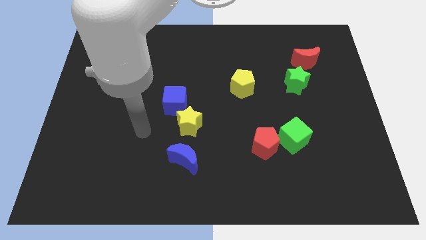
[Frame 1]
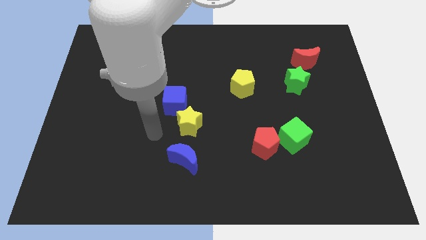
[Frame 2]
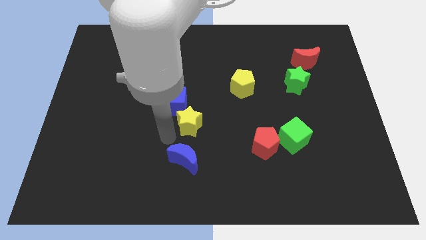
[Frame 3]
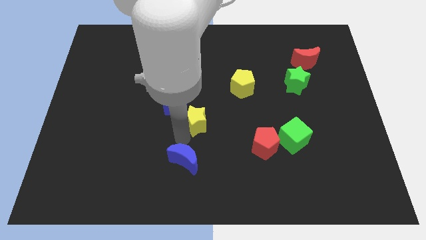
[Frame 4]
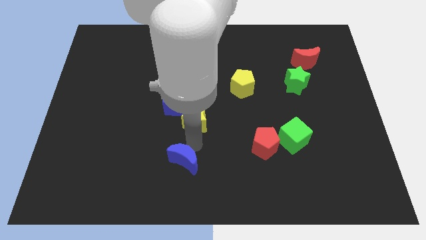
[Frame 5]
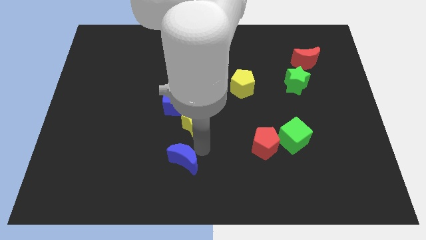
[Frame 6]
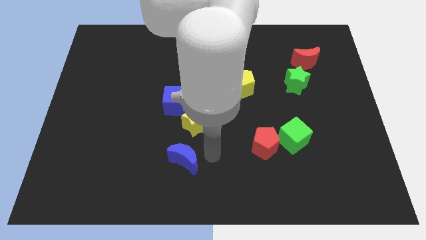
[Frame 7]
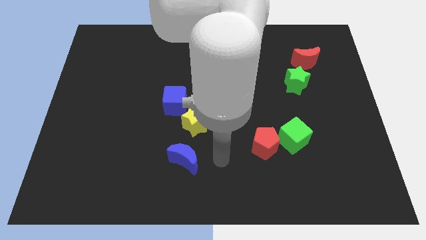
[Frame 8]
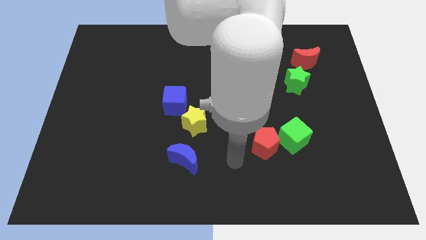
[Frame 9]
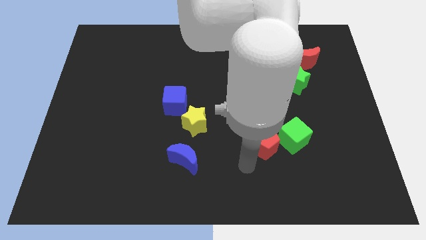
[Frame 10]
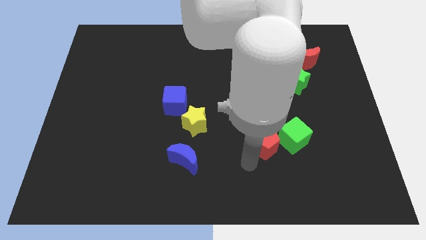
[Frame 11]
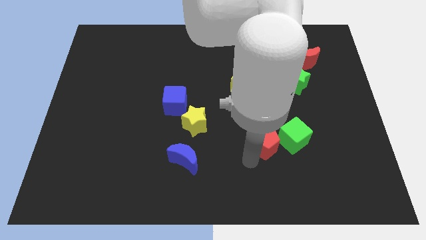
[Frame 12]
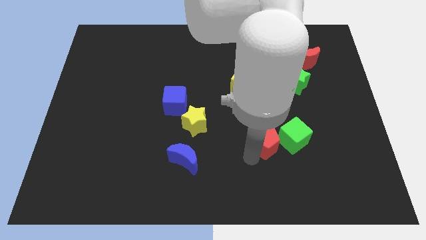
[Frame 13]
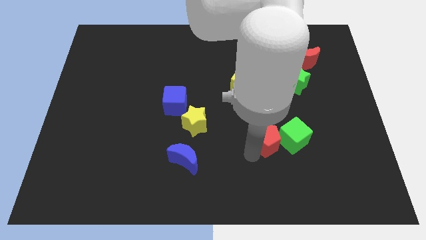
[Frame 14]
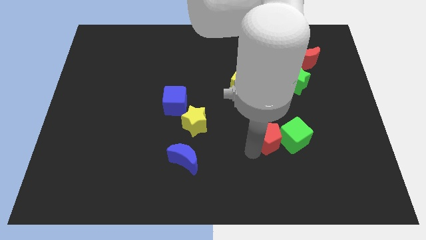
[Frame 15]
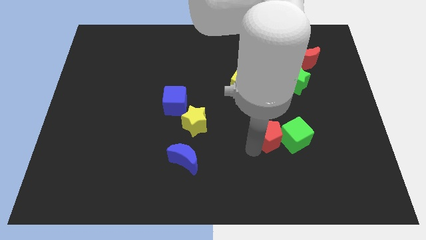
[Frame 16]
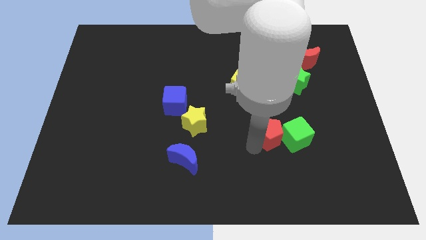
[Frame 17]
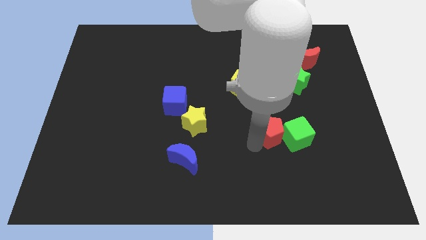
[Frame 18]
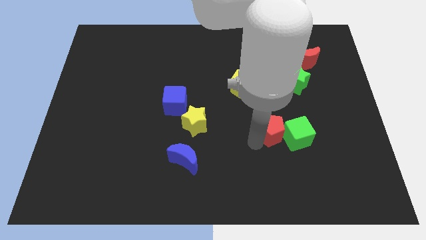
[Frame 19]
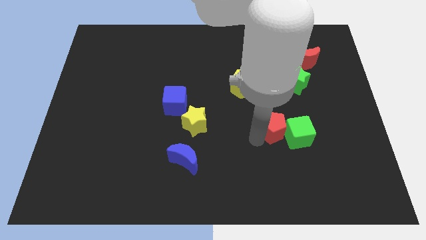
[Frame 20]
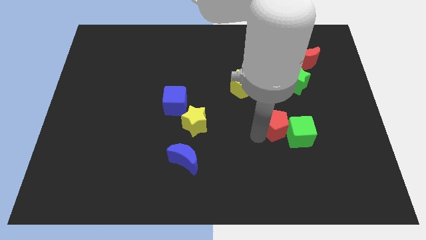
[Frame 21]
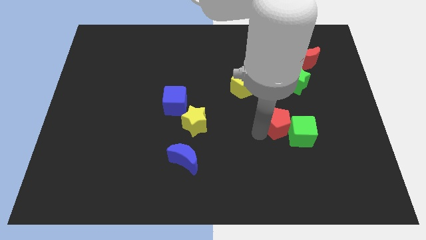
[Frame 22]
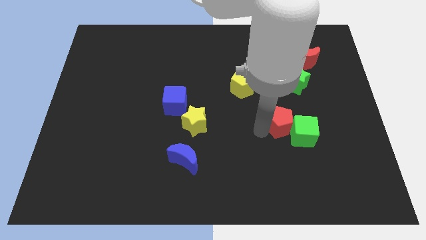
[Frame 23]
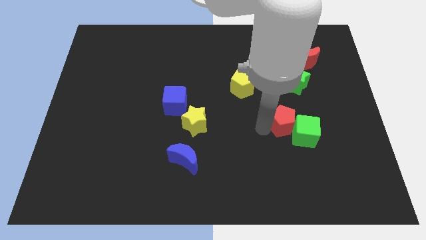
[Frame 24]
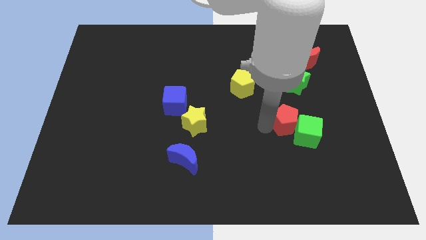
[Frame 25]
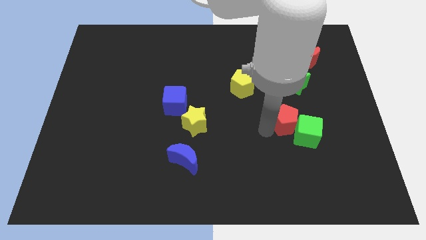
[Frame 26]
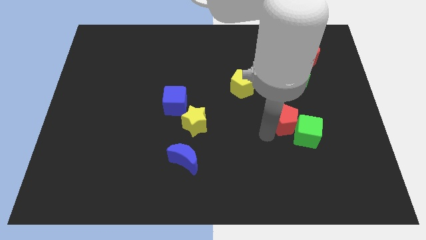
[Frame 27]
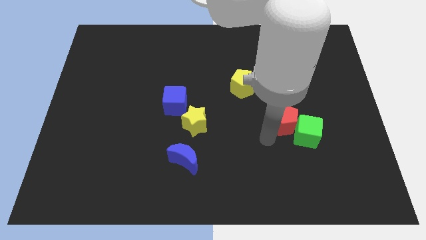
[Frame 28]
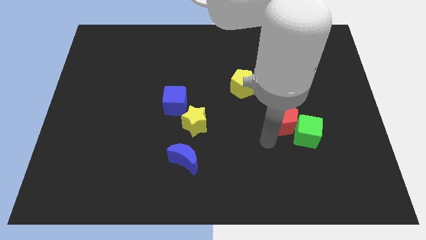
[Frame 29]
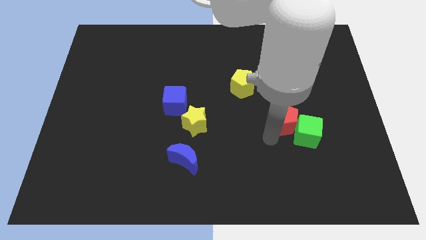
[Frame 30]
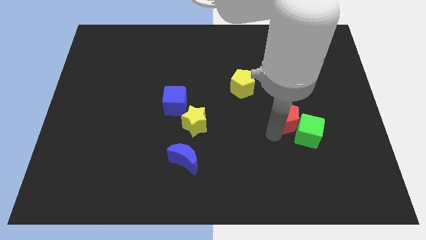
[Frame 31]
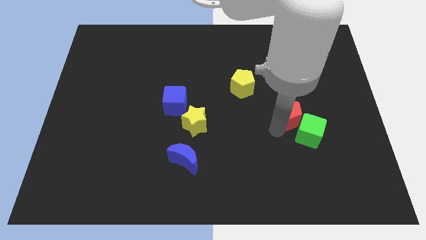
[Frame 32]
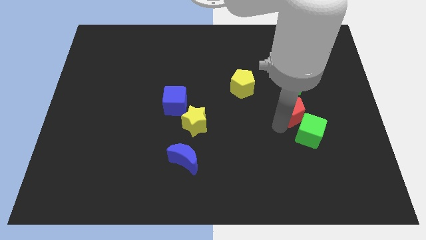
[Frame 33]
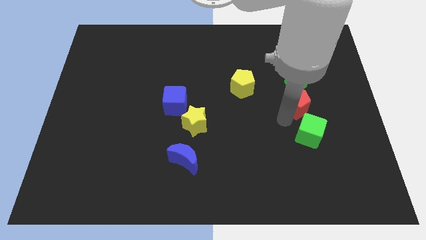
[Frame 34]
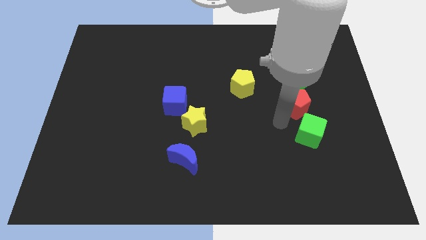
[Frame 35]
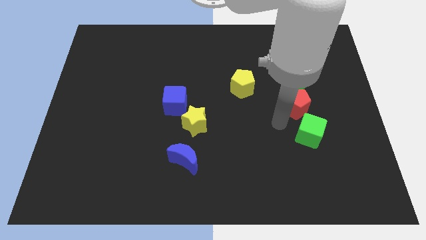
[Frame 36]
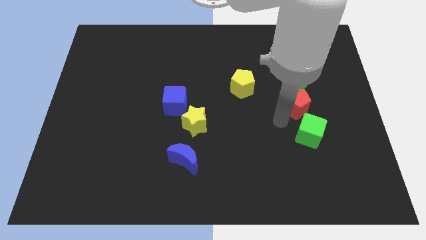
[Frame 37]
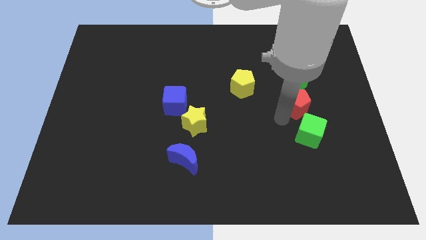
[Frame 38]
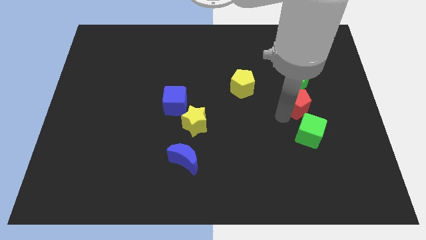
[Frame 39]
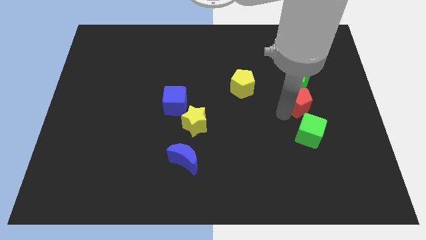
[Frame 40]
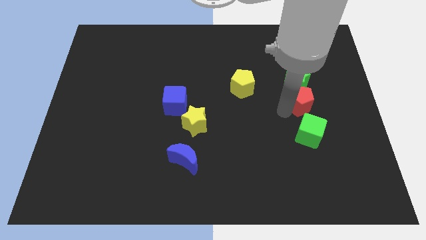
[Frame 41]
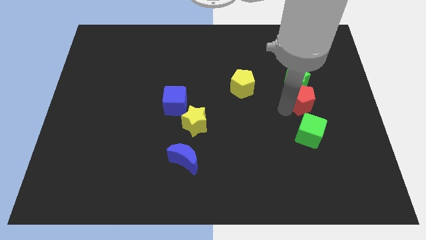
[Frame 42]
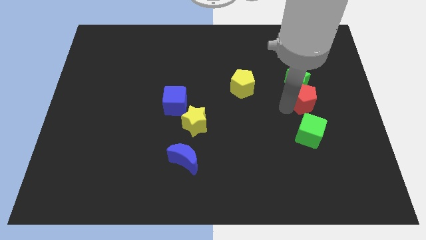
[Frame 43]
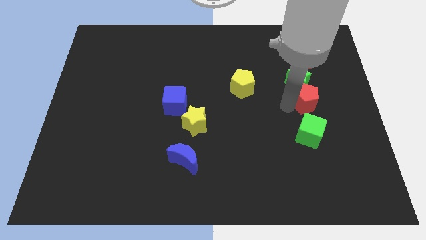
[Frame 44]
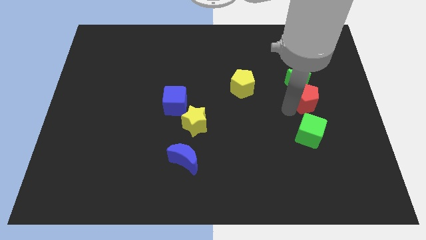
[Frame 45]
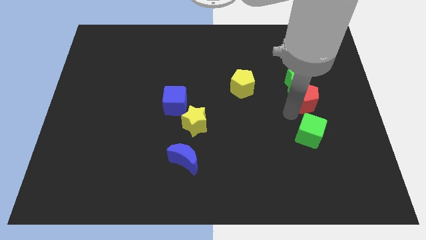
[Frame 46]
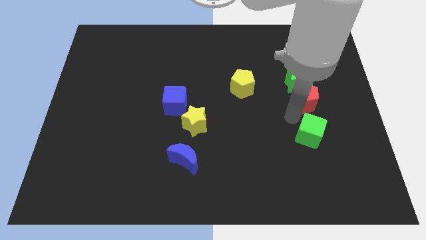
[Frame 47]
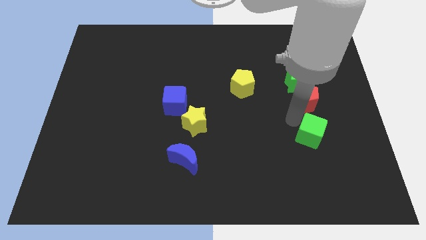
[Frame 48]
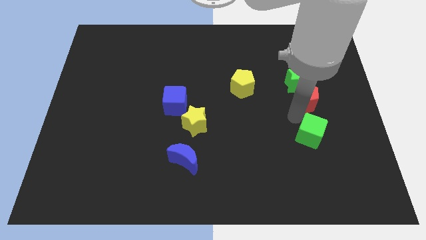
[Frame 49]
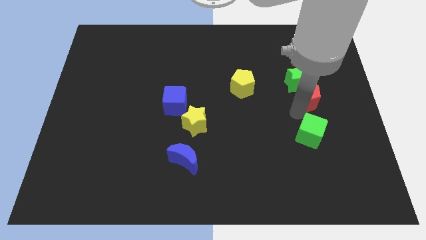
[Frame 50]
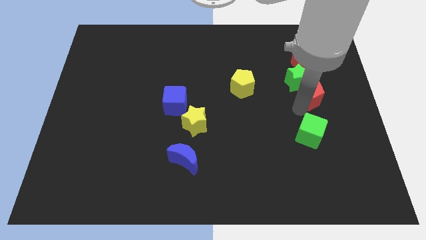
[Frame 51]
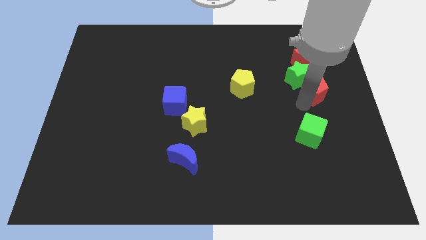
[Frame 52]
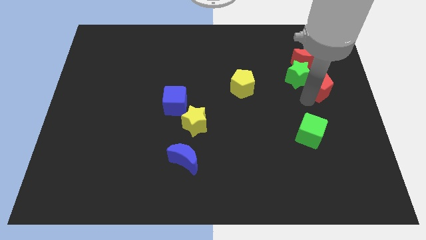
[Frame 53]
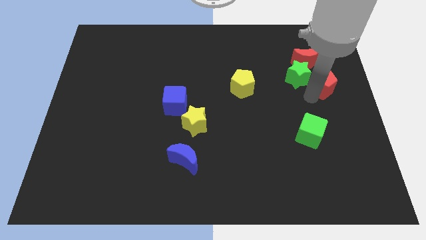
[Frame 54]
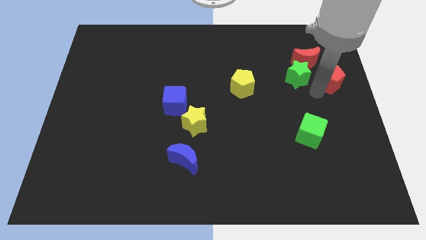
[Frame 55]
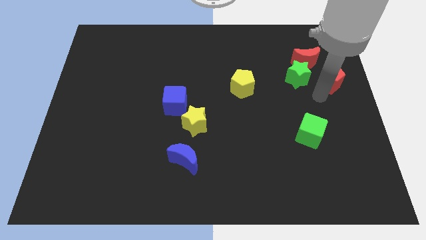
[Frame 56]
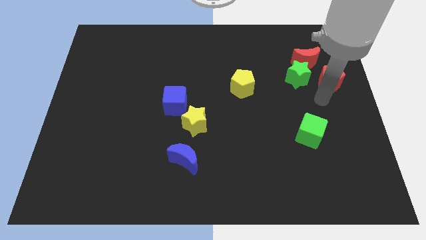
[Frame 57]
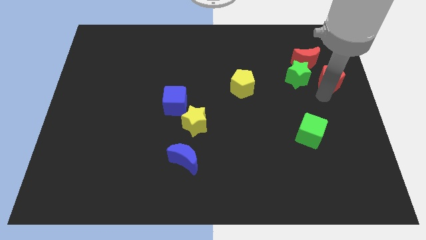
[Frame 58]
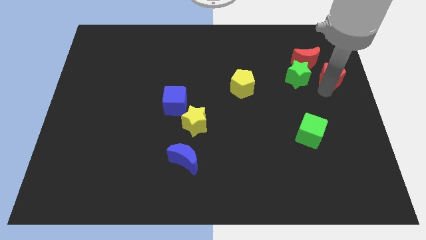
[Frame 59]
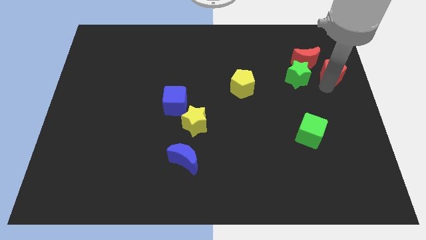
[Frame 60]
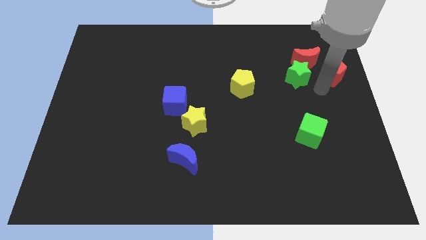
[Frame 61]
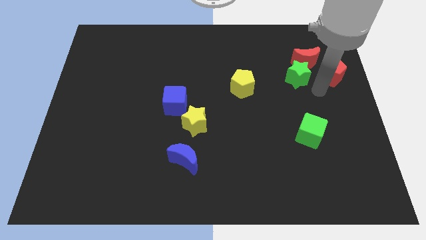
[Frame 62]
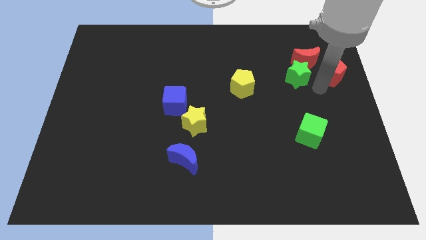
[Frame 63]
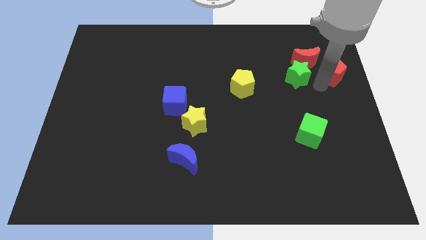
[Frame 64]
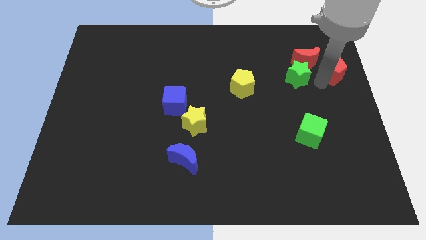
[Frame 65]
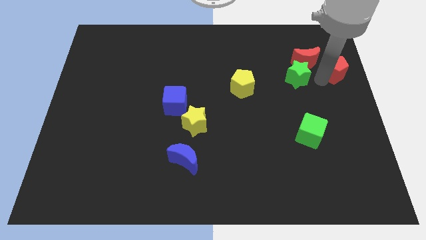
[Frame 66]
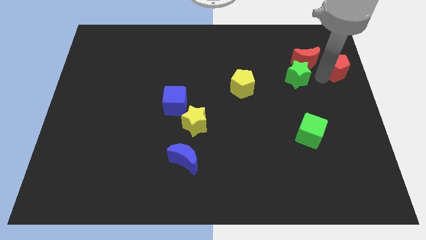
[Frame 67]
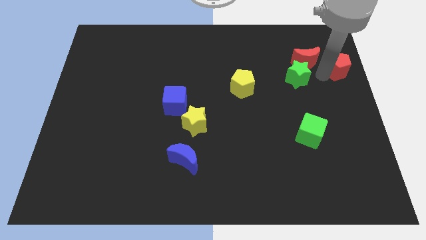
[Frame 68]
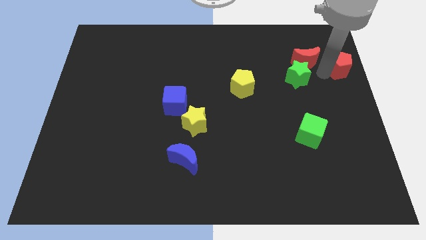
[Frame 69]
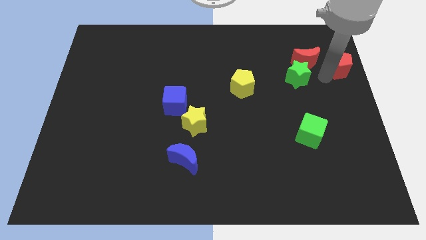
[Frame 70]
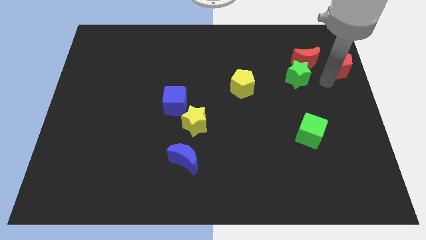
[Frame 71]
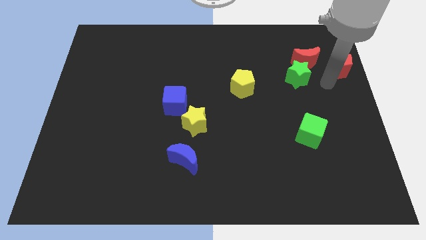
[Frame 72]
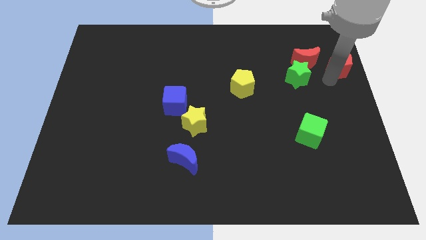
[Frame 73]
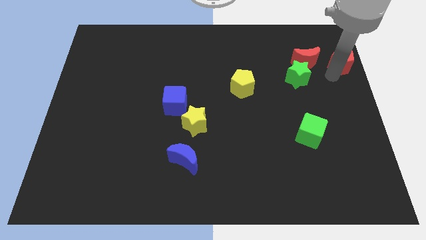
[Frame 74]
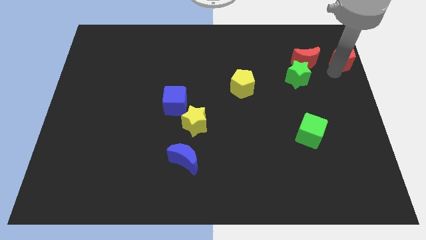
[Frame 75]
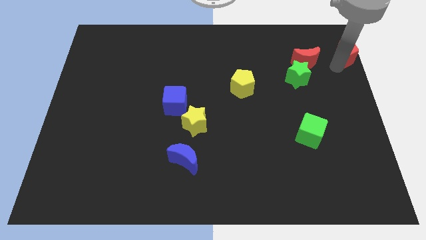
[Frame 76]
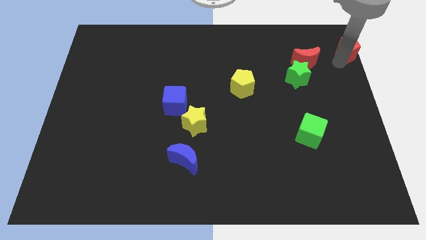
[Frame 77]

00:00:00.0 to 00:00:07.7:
move the red pentagon to the top right of the board
